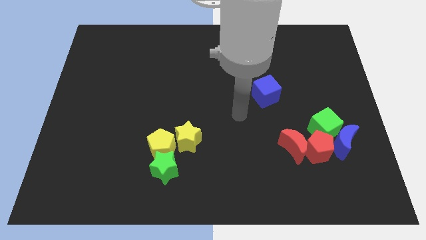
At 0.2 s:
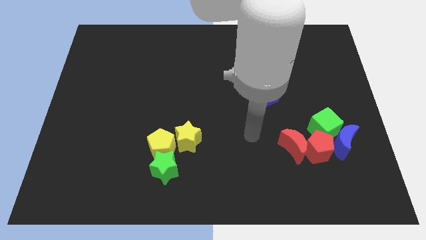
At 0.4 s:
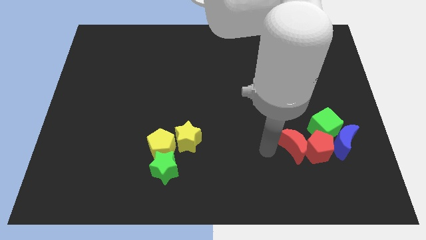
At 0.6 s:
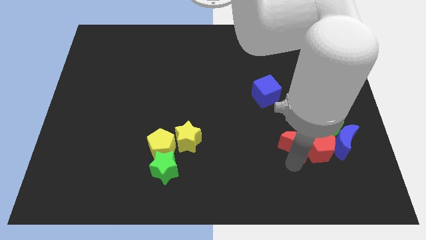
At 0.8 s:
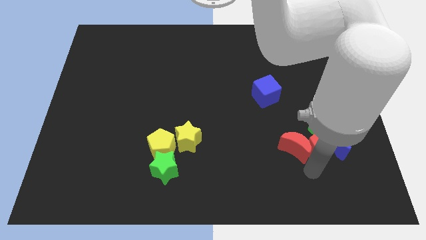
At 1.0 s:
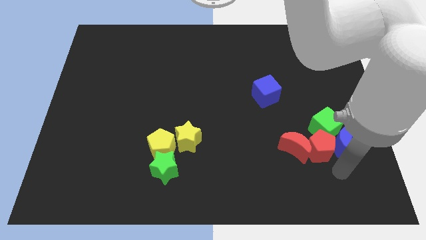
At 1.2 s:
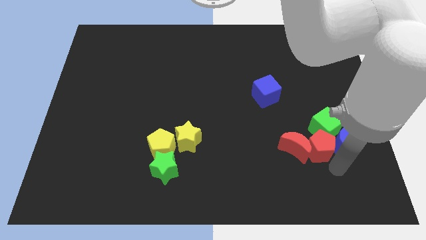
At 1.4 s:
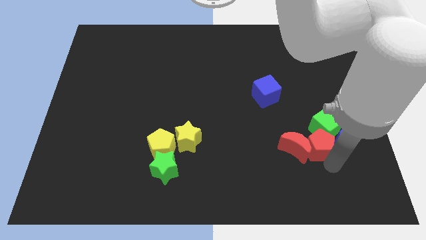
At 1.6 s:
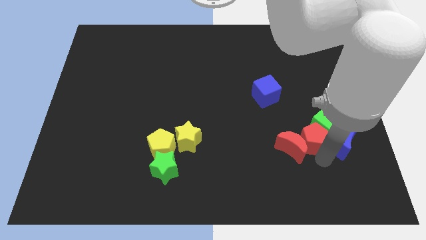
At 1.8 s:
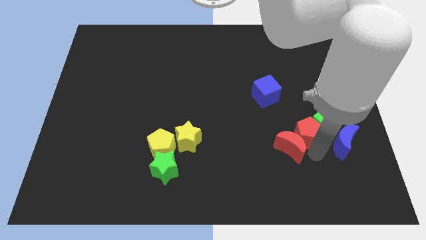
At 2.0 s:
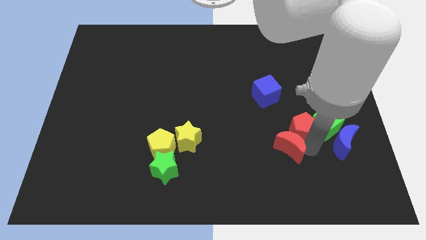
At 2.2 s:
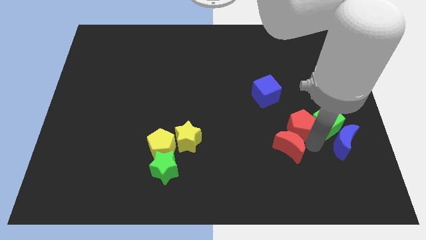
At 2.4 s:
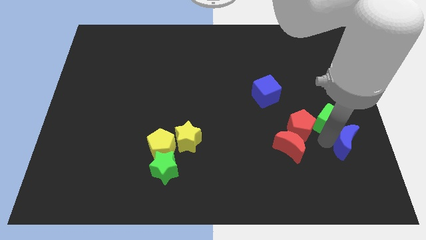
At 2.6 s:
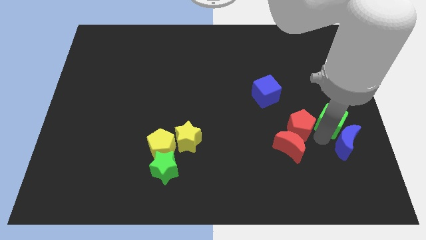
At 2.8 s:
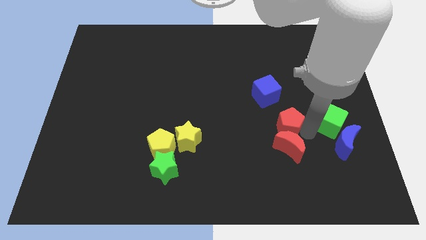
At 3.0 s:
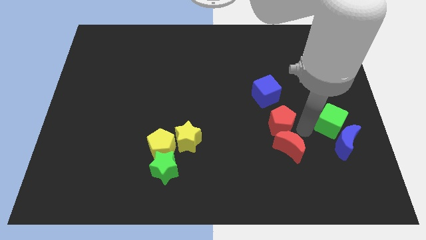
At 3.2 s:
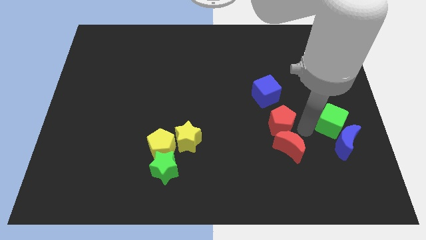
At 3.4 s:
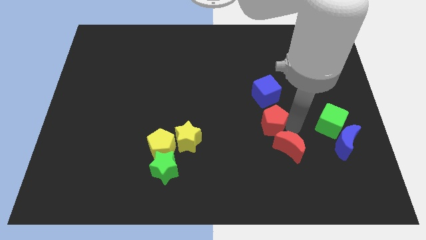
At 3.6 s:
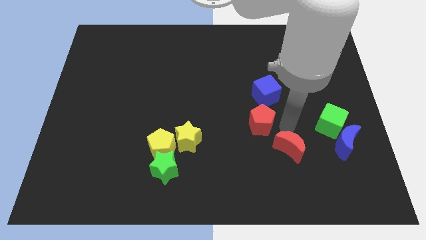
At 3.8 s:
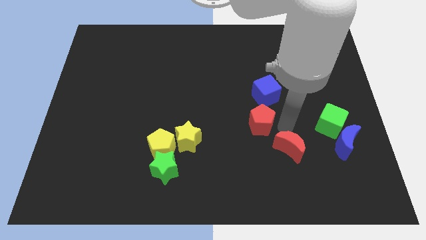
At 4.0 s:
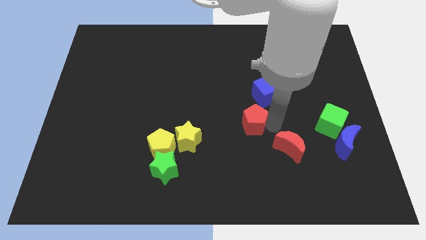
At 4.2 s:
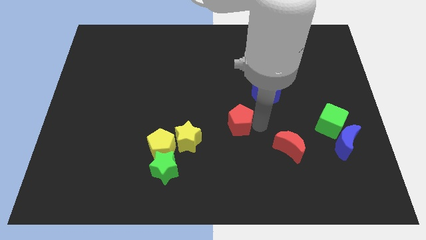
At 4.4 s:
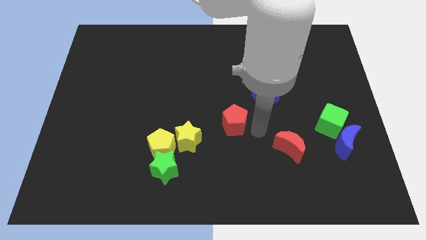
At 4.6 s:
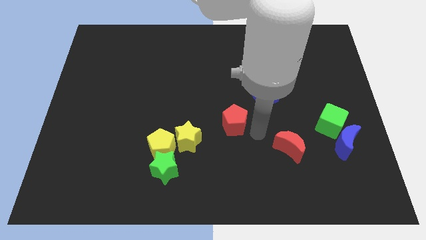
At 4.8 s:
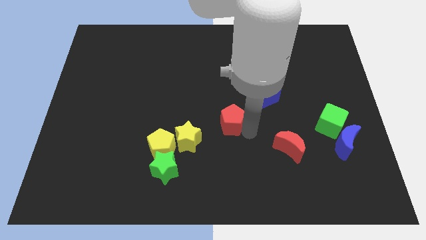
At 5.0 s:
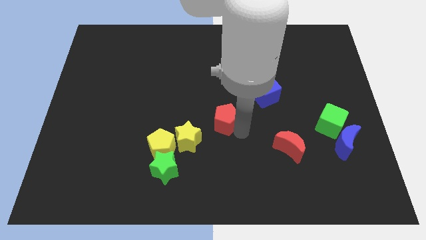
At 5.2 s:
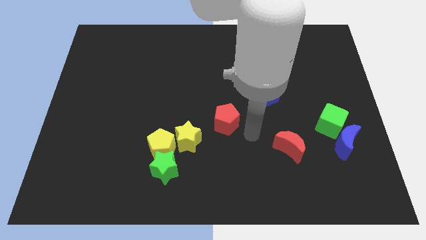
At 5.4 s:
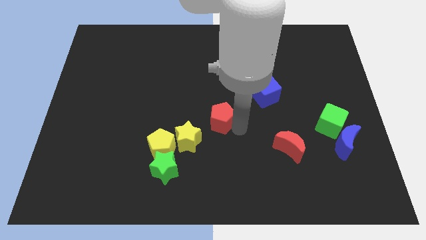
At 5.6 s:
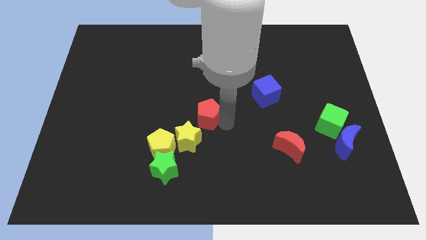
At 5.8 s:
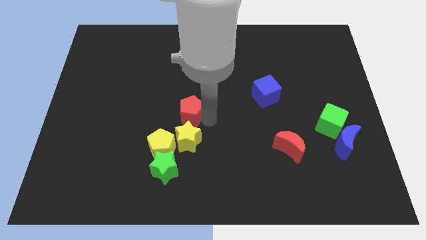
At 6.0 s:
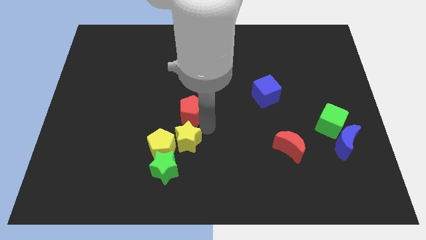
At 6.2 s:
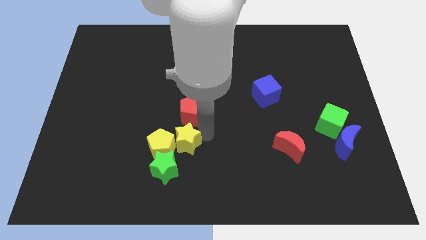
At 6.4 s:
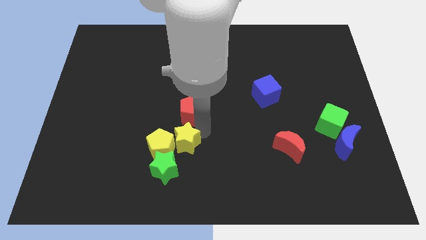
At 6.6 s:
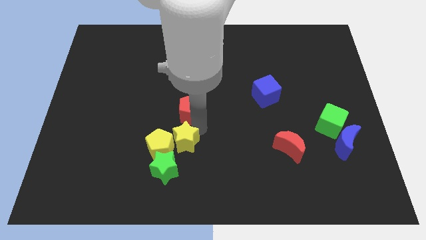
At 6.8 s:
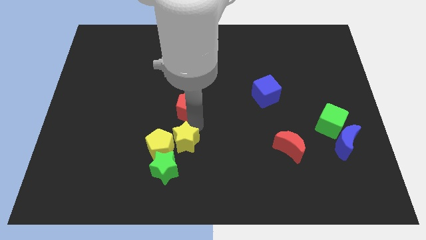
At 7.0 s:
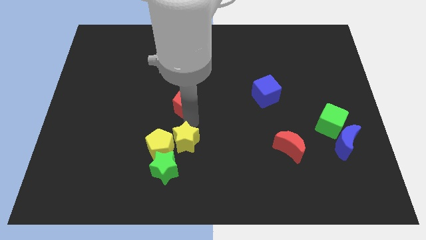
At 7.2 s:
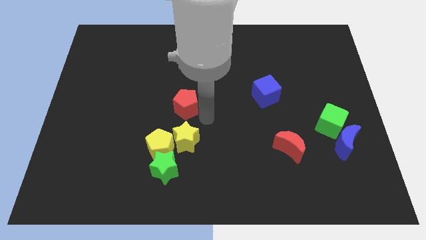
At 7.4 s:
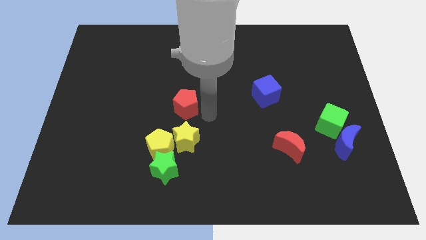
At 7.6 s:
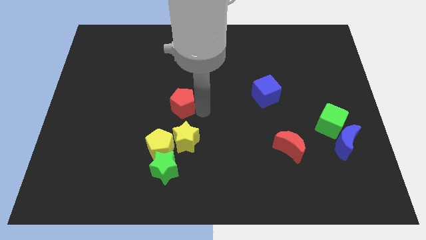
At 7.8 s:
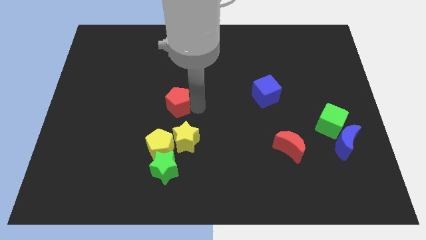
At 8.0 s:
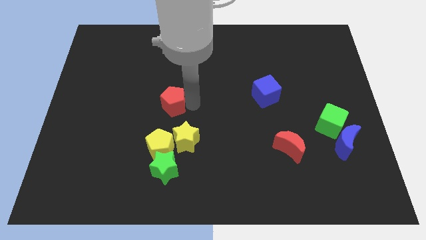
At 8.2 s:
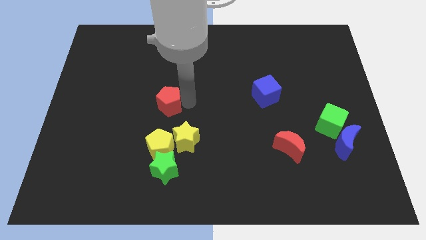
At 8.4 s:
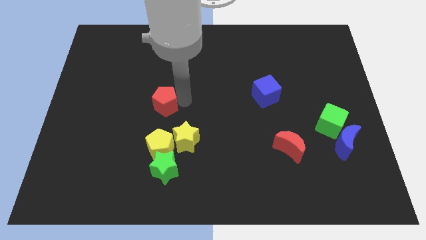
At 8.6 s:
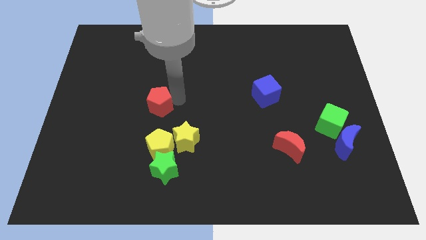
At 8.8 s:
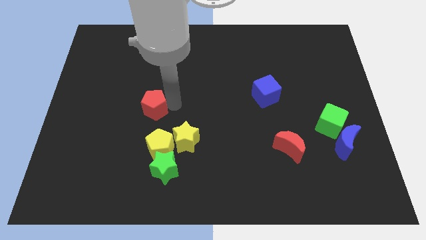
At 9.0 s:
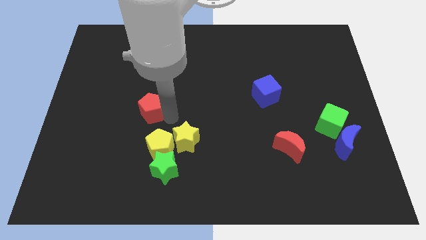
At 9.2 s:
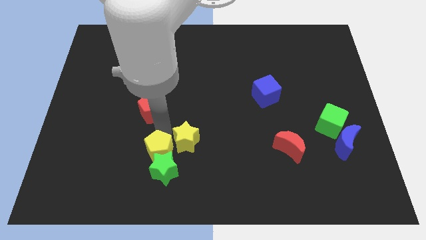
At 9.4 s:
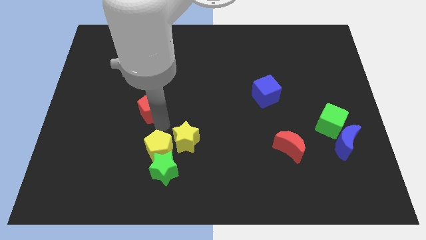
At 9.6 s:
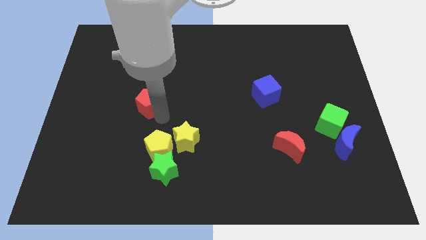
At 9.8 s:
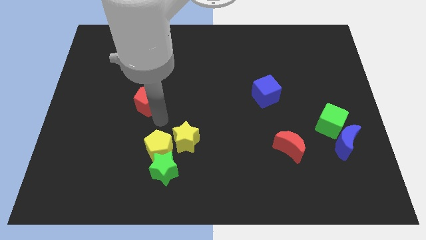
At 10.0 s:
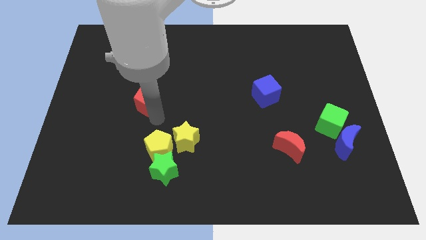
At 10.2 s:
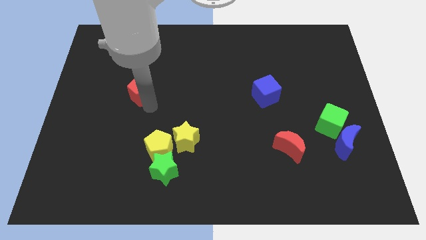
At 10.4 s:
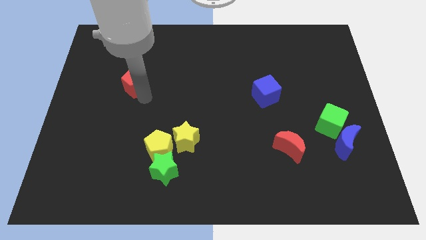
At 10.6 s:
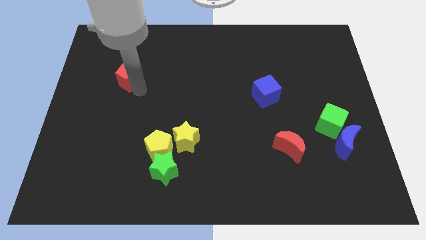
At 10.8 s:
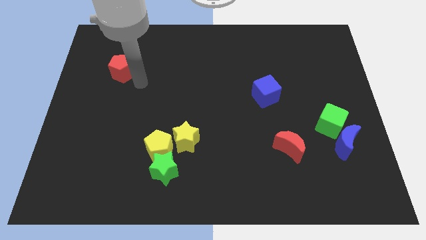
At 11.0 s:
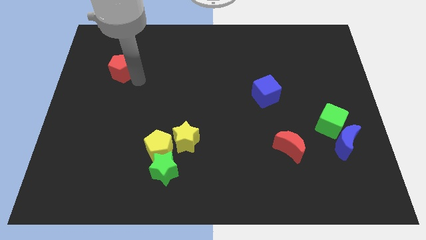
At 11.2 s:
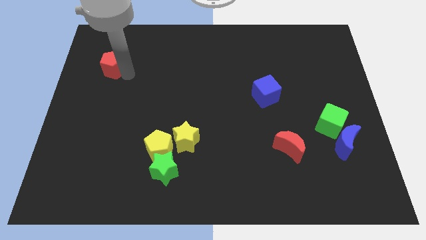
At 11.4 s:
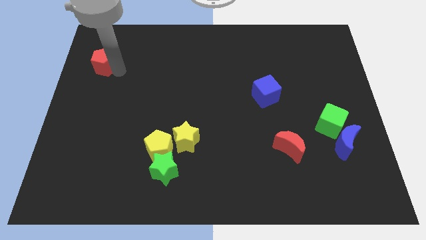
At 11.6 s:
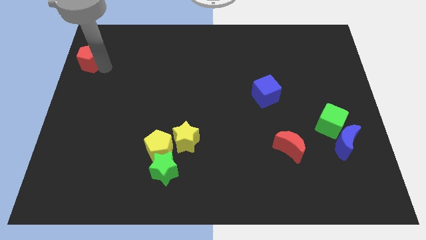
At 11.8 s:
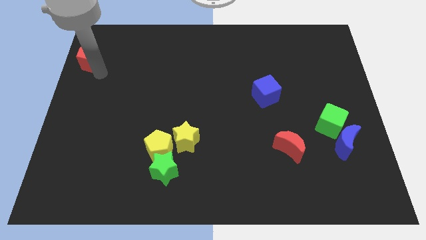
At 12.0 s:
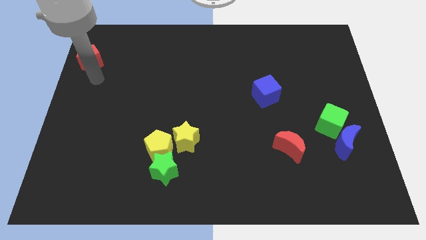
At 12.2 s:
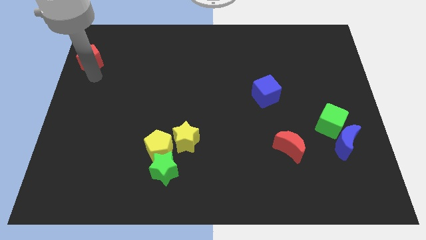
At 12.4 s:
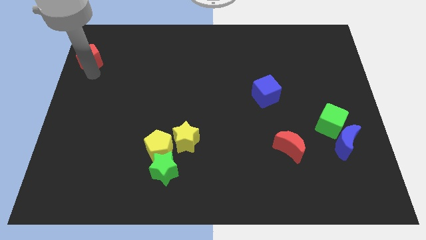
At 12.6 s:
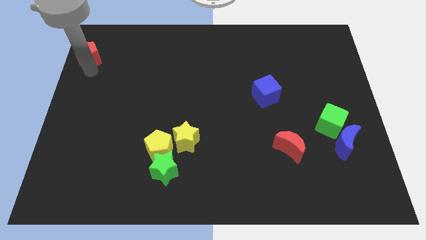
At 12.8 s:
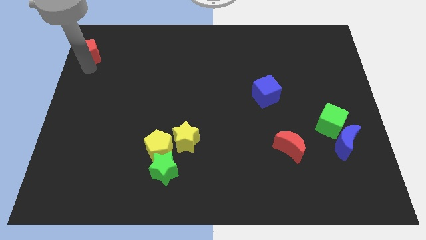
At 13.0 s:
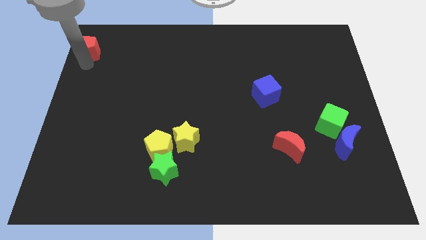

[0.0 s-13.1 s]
slide the red pentagon to the top left

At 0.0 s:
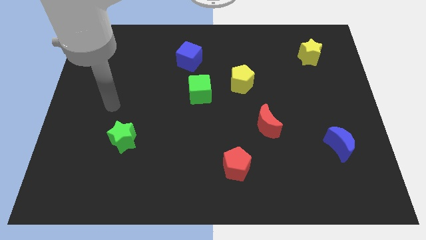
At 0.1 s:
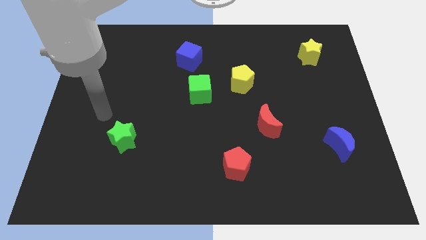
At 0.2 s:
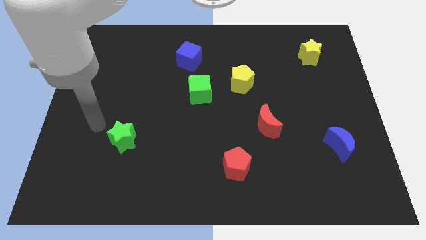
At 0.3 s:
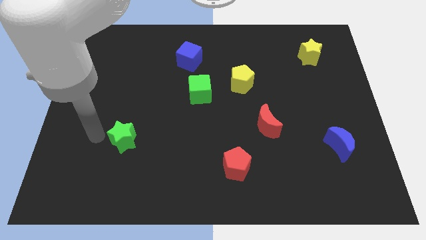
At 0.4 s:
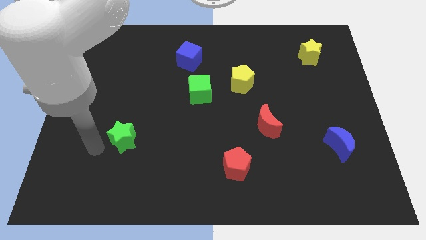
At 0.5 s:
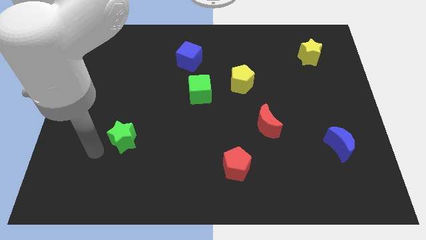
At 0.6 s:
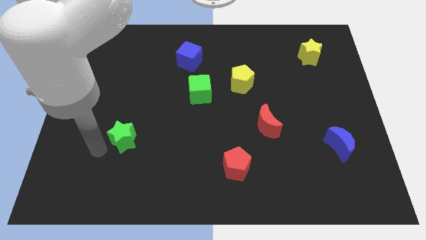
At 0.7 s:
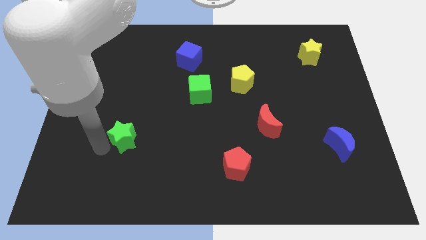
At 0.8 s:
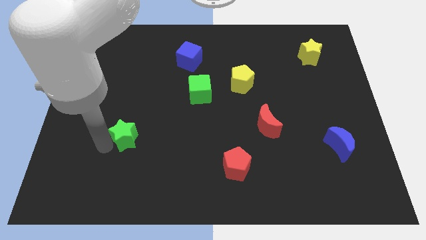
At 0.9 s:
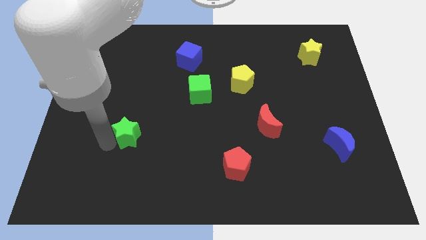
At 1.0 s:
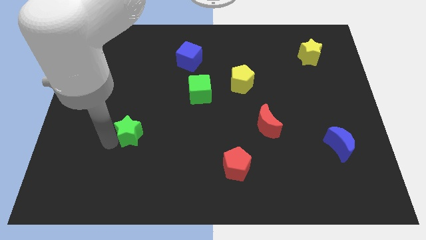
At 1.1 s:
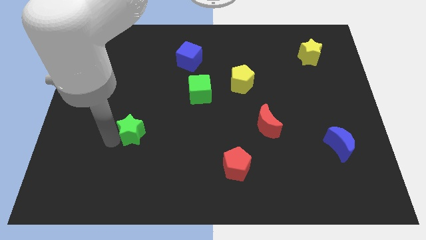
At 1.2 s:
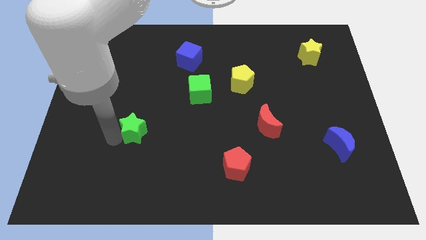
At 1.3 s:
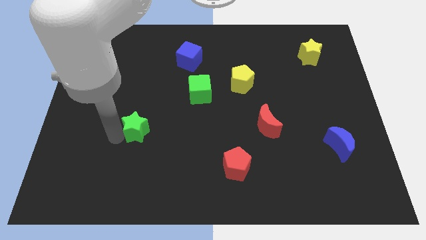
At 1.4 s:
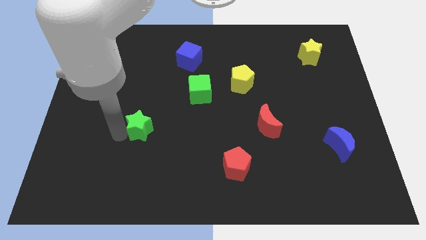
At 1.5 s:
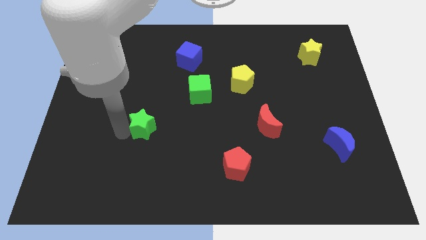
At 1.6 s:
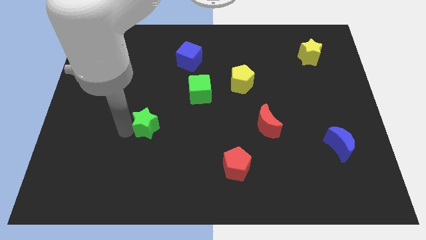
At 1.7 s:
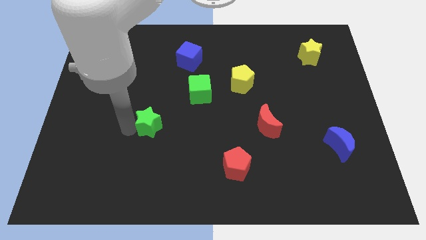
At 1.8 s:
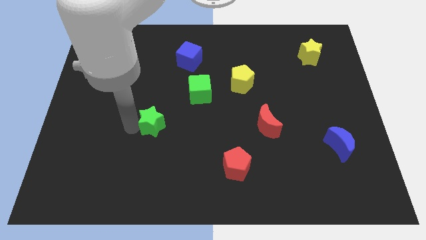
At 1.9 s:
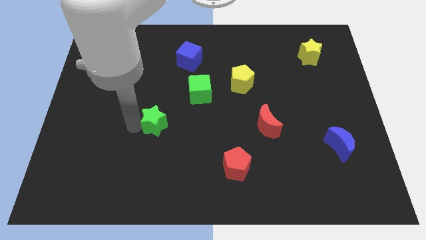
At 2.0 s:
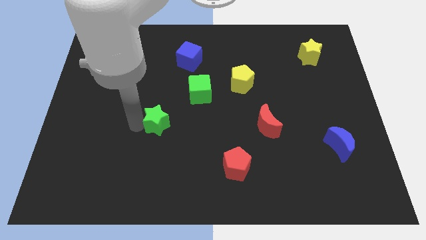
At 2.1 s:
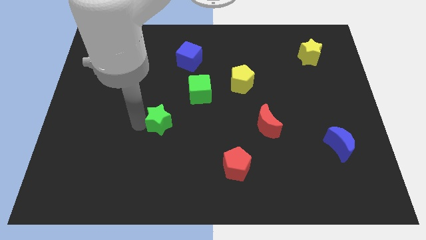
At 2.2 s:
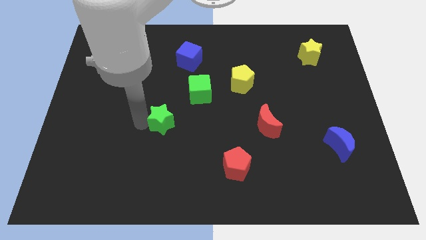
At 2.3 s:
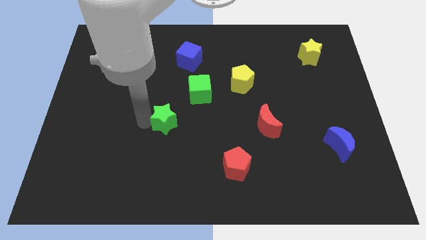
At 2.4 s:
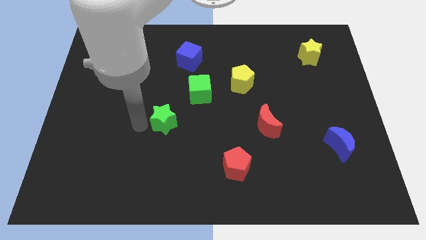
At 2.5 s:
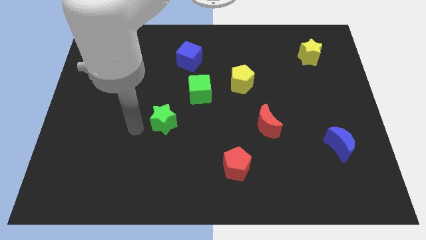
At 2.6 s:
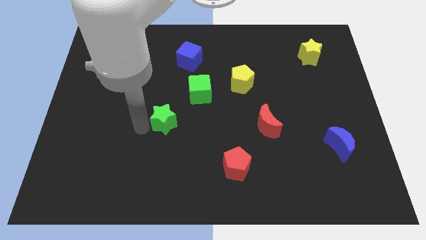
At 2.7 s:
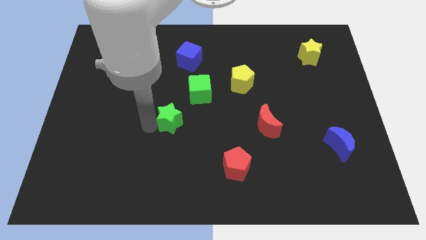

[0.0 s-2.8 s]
push the green star to the center
